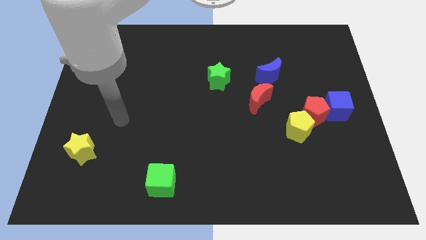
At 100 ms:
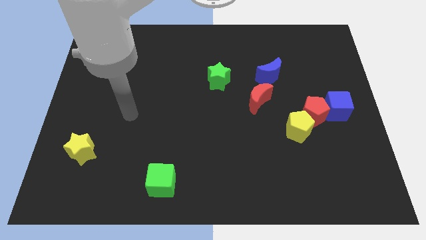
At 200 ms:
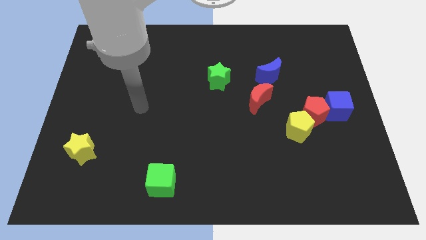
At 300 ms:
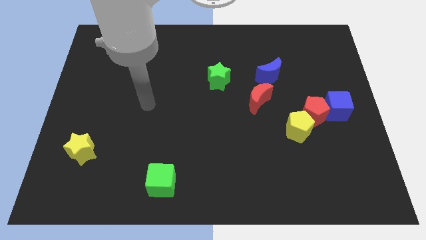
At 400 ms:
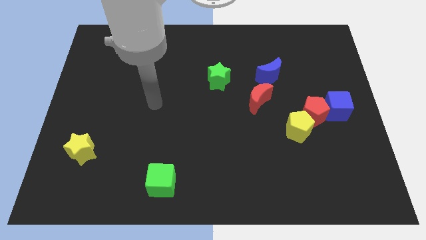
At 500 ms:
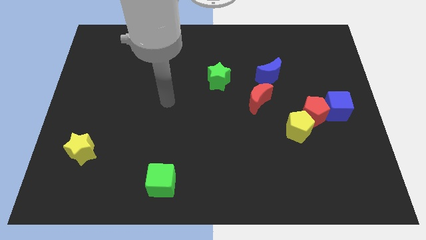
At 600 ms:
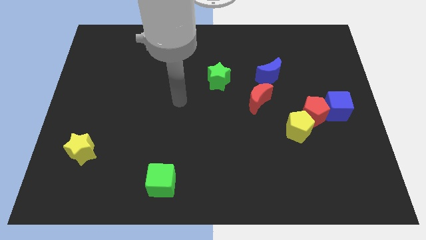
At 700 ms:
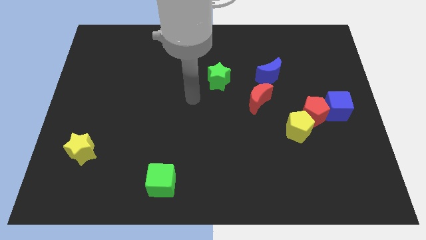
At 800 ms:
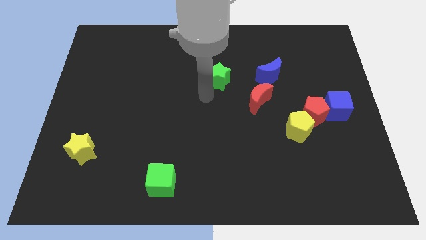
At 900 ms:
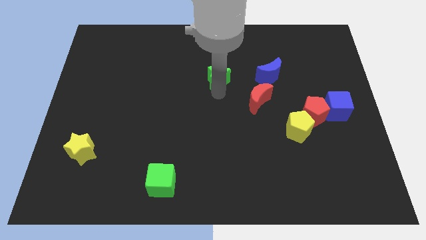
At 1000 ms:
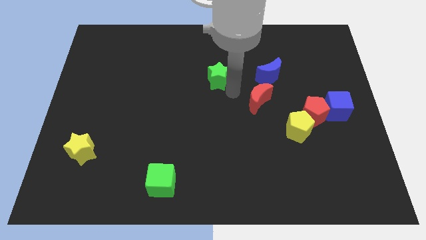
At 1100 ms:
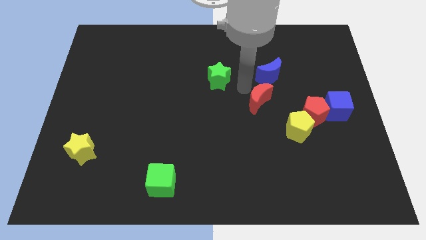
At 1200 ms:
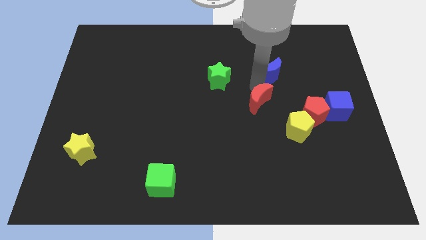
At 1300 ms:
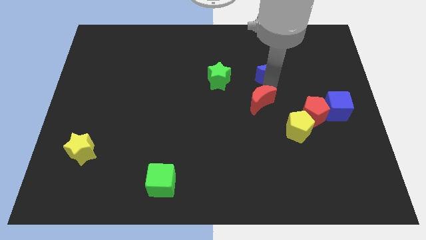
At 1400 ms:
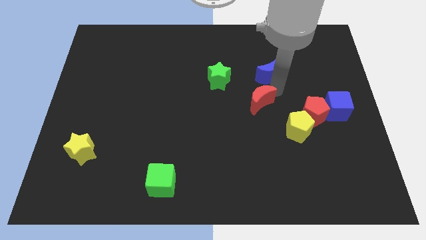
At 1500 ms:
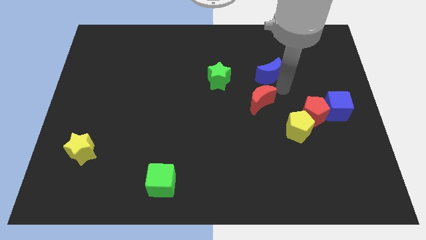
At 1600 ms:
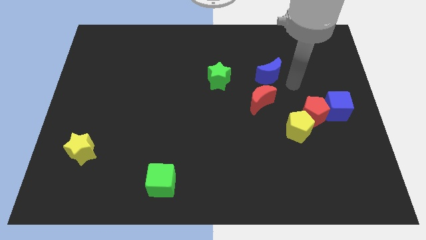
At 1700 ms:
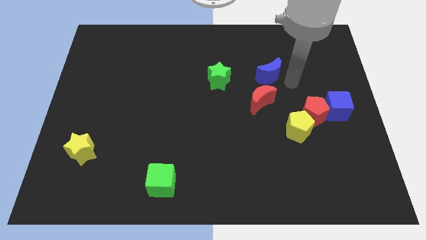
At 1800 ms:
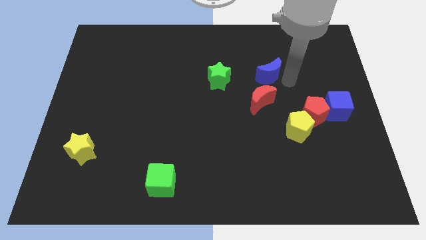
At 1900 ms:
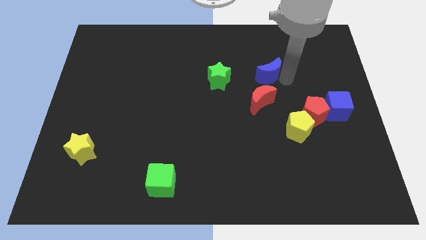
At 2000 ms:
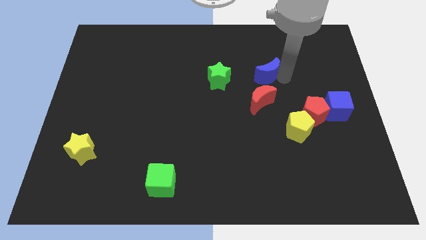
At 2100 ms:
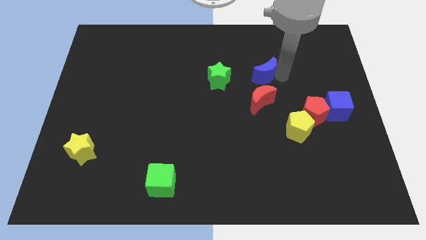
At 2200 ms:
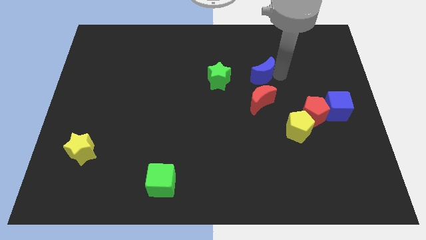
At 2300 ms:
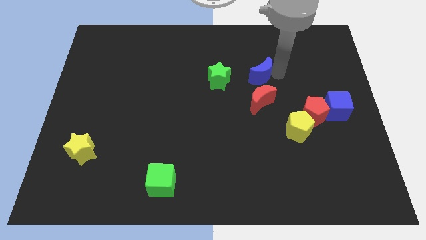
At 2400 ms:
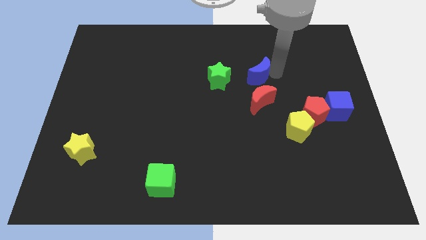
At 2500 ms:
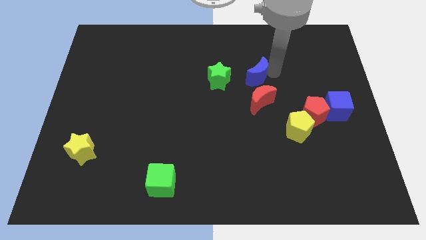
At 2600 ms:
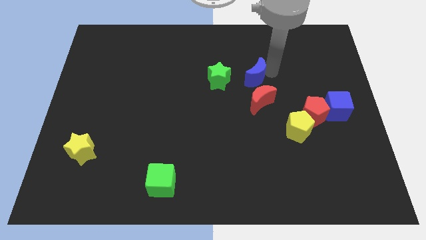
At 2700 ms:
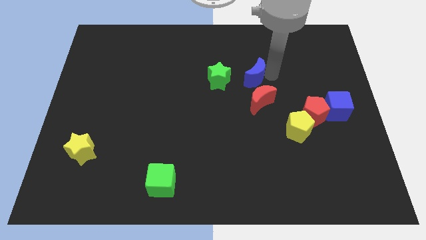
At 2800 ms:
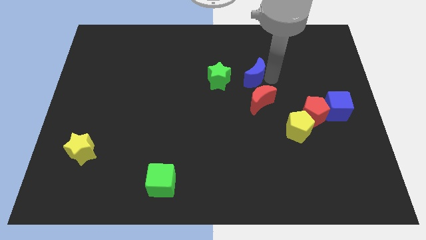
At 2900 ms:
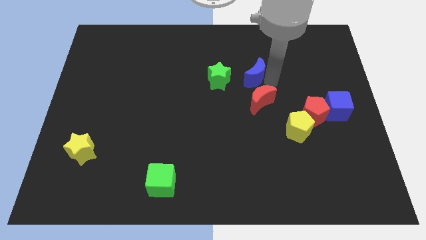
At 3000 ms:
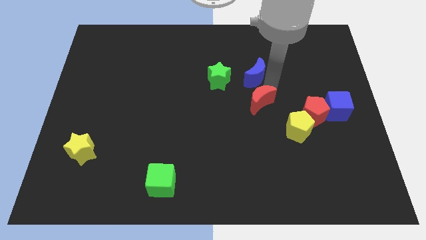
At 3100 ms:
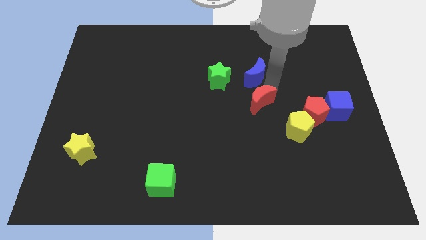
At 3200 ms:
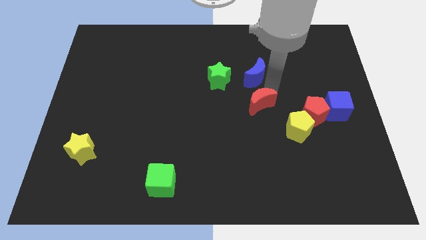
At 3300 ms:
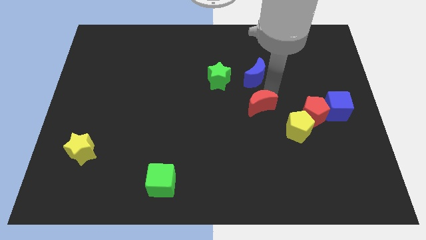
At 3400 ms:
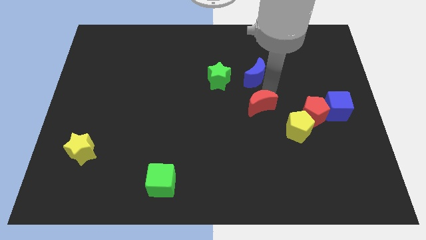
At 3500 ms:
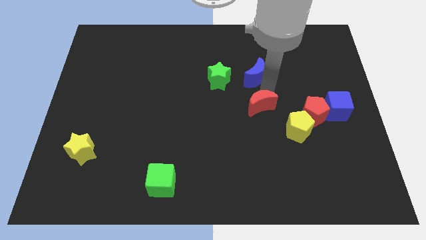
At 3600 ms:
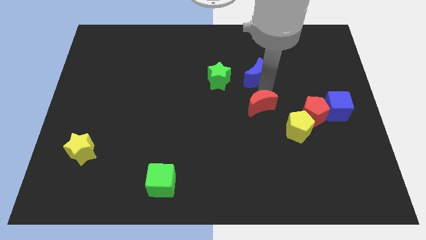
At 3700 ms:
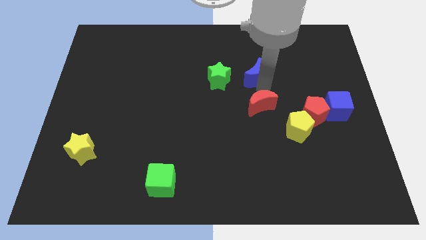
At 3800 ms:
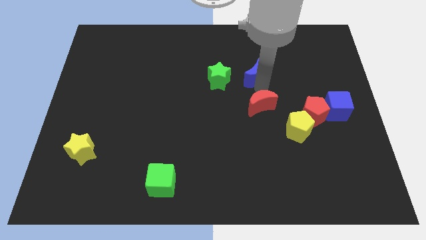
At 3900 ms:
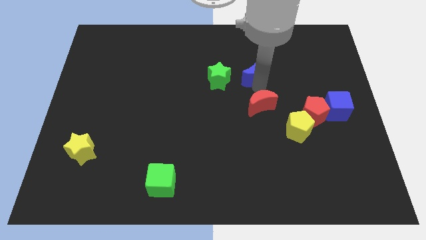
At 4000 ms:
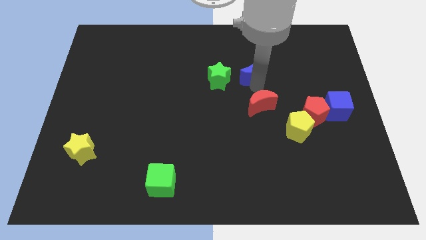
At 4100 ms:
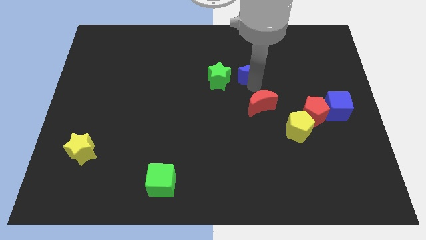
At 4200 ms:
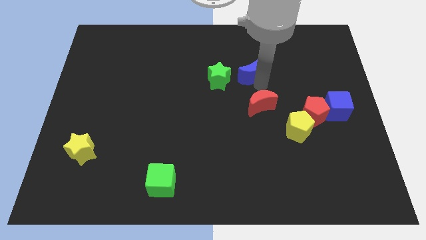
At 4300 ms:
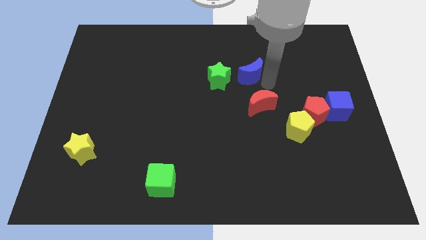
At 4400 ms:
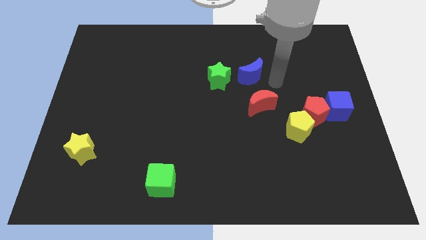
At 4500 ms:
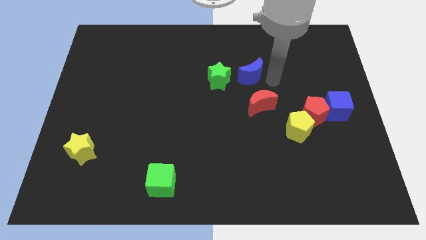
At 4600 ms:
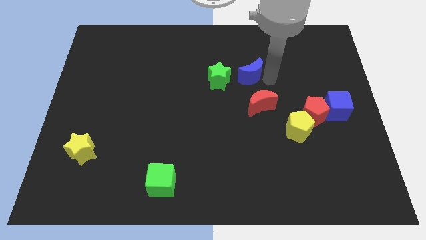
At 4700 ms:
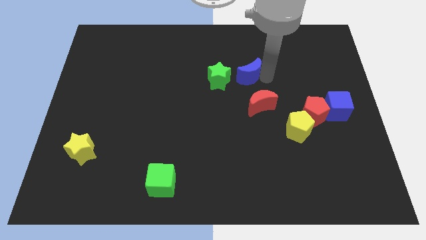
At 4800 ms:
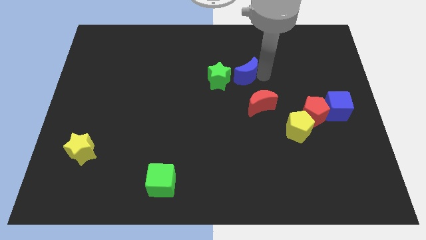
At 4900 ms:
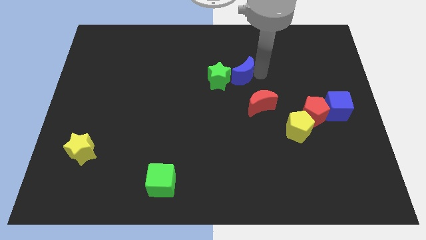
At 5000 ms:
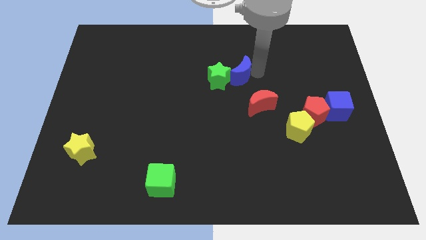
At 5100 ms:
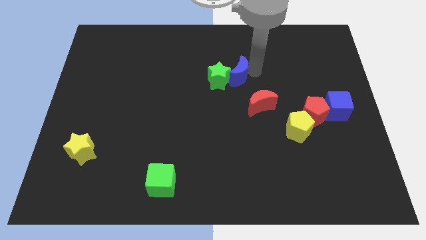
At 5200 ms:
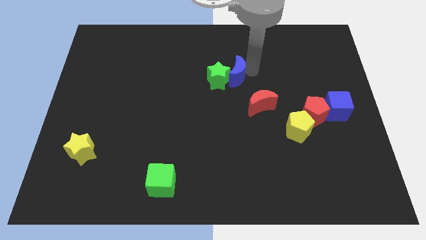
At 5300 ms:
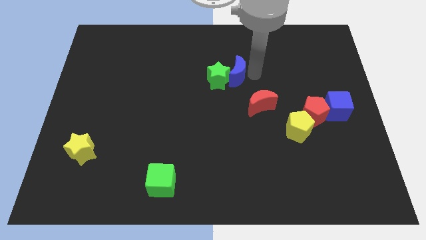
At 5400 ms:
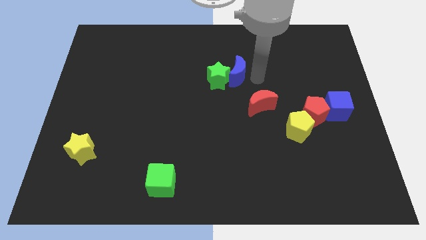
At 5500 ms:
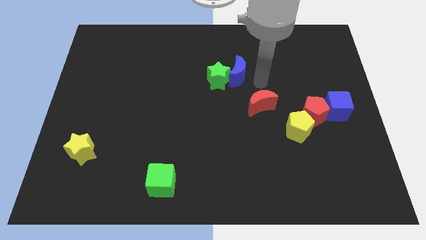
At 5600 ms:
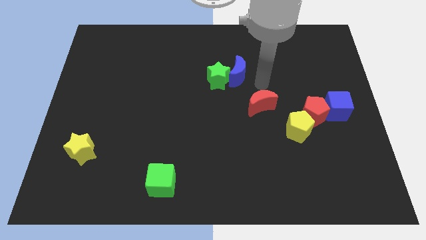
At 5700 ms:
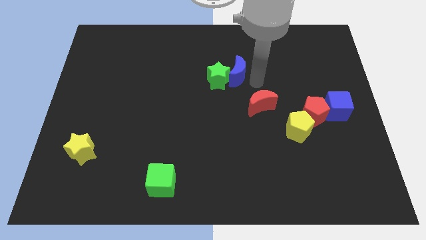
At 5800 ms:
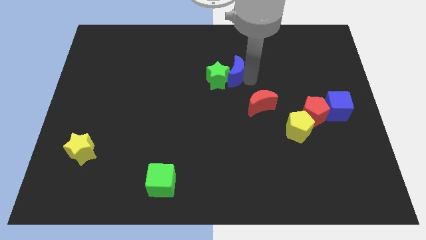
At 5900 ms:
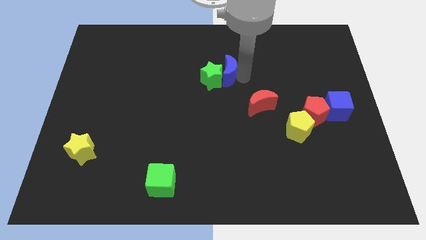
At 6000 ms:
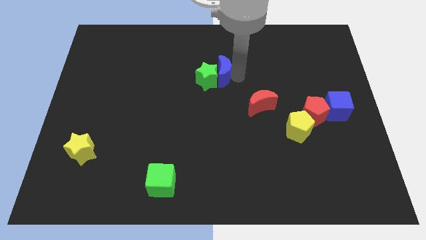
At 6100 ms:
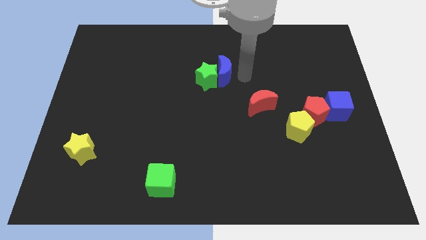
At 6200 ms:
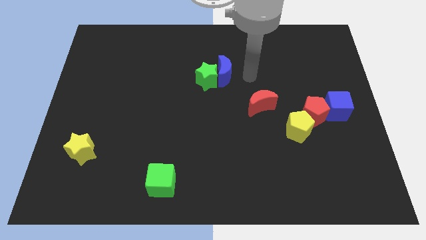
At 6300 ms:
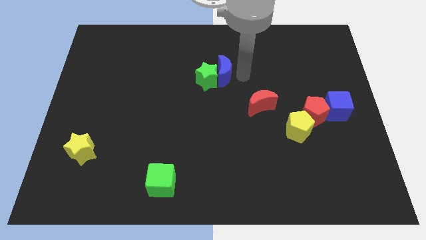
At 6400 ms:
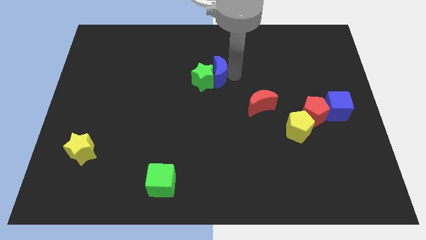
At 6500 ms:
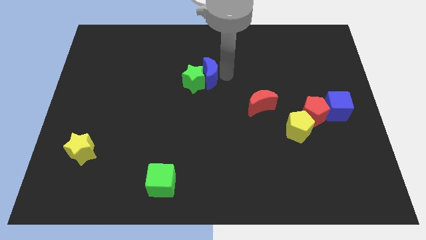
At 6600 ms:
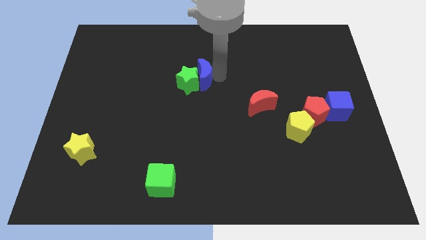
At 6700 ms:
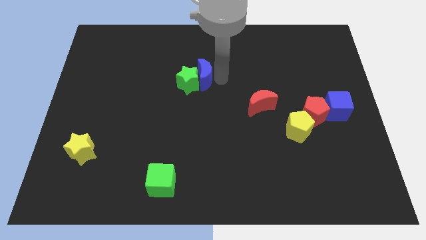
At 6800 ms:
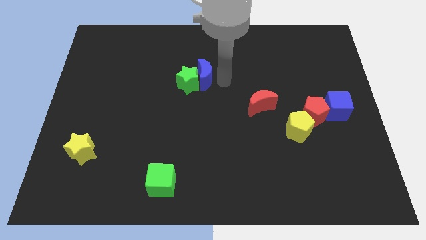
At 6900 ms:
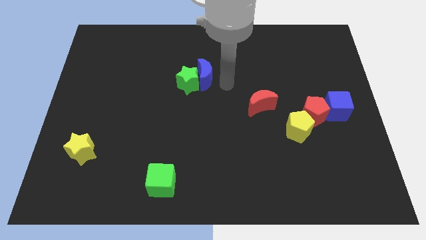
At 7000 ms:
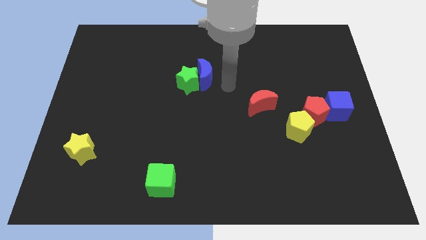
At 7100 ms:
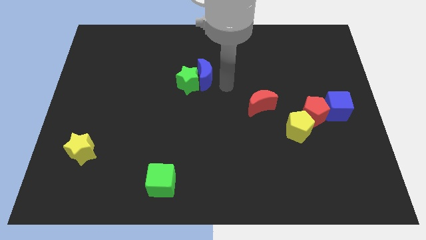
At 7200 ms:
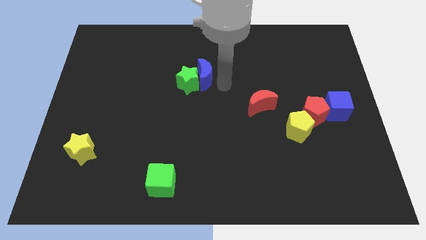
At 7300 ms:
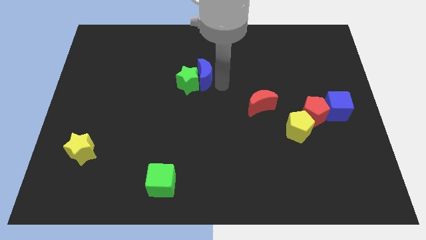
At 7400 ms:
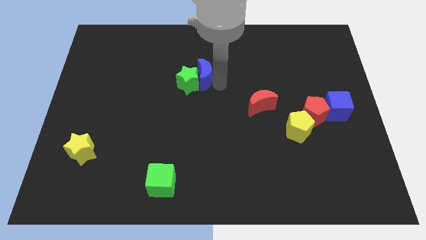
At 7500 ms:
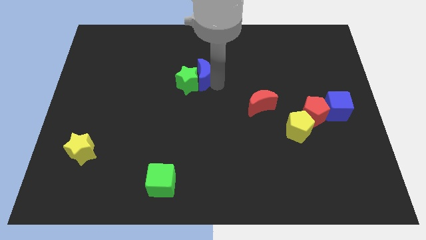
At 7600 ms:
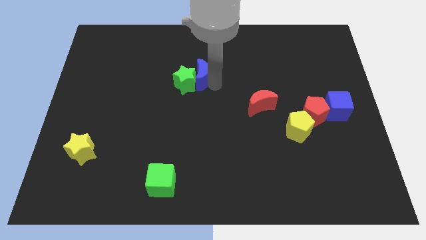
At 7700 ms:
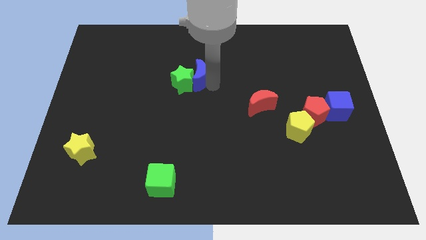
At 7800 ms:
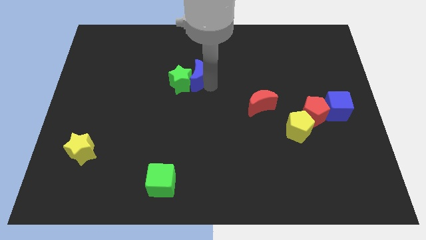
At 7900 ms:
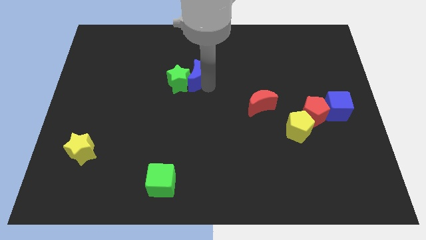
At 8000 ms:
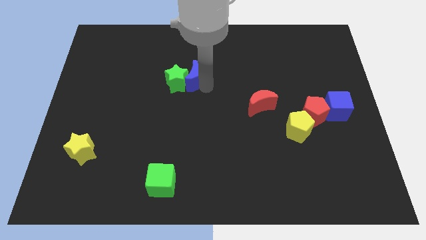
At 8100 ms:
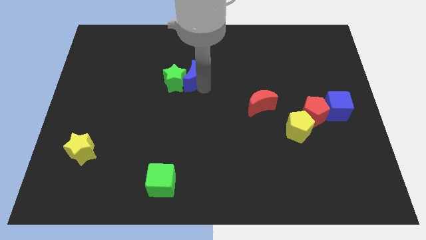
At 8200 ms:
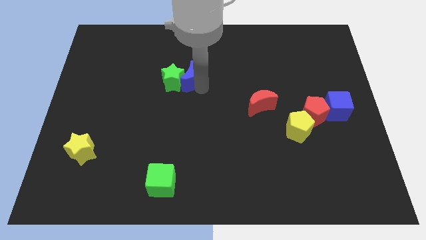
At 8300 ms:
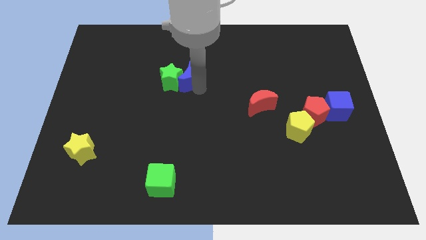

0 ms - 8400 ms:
move the blue moon left
